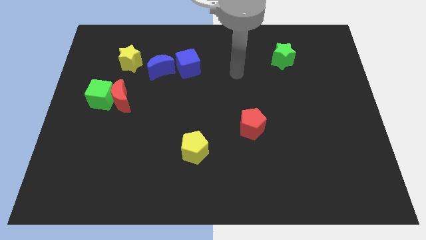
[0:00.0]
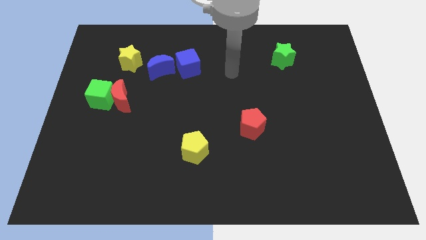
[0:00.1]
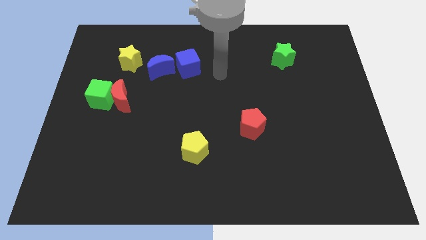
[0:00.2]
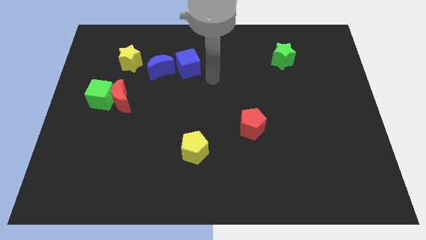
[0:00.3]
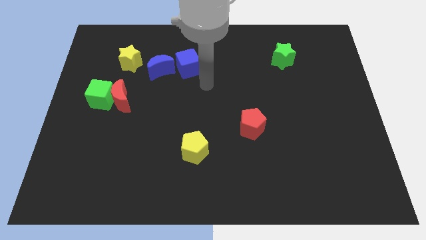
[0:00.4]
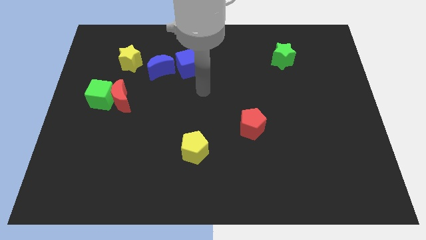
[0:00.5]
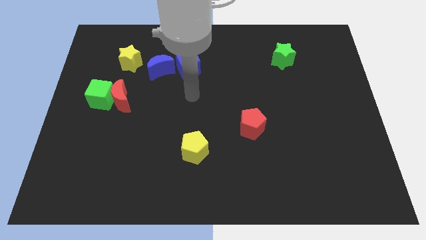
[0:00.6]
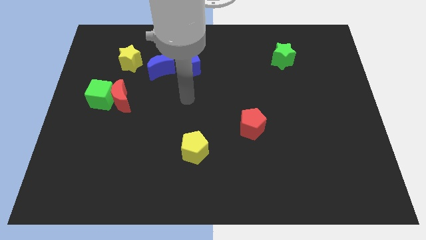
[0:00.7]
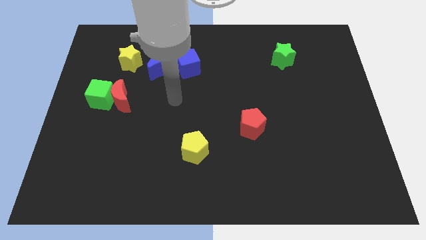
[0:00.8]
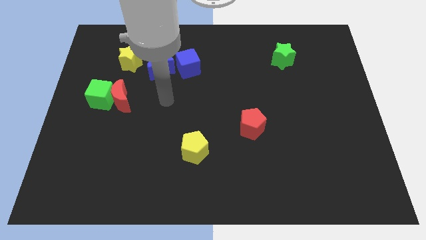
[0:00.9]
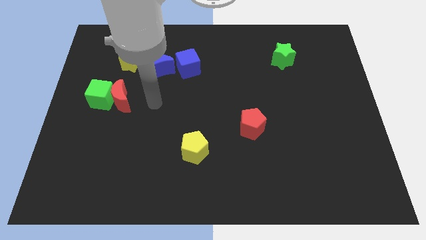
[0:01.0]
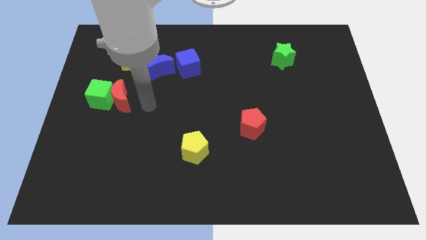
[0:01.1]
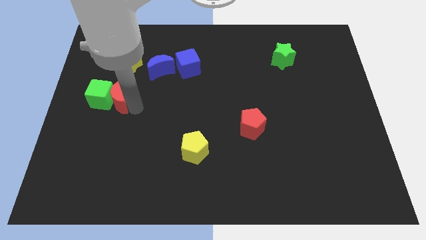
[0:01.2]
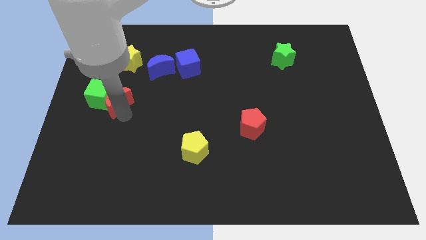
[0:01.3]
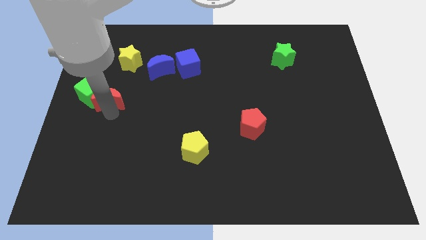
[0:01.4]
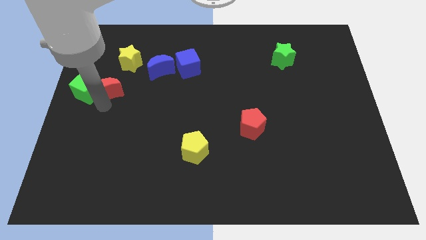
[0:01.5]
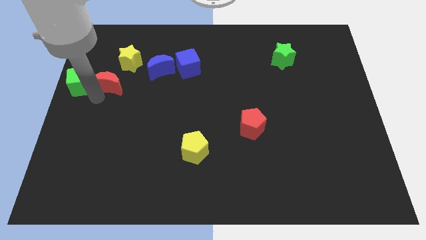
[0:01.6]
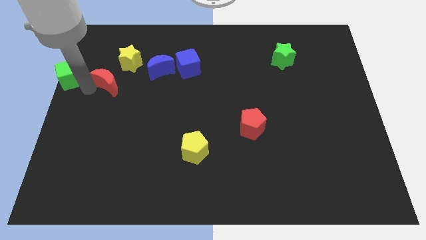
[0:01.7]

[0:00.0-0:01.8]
separate the red moon from the green cube

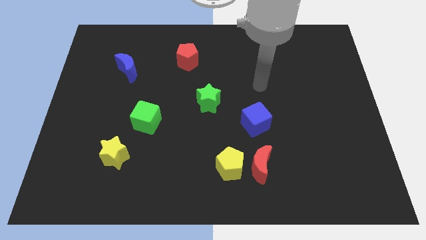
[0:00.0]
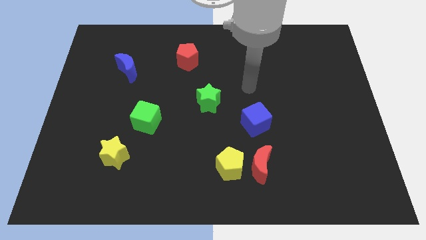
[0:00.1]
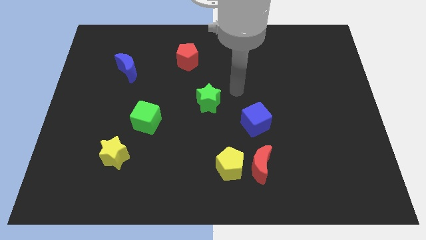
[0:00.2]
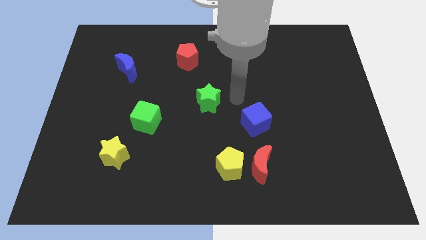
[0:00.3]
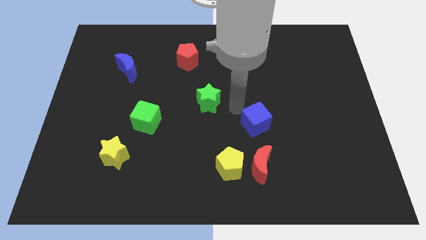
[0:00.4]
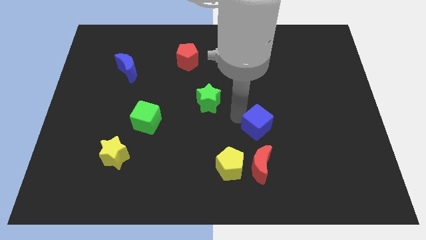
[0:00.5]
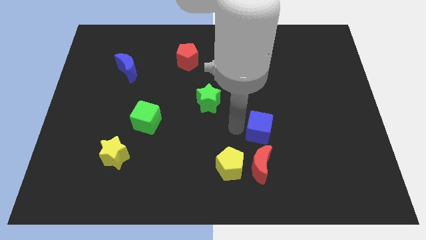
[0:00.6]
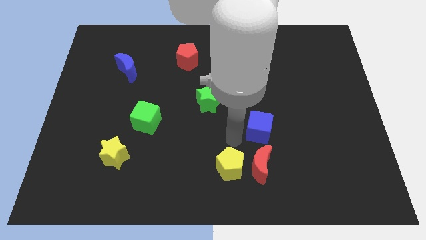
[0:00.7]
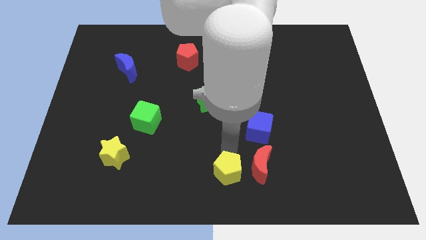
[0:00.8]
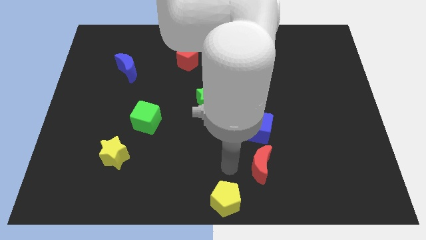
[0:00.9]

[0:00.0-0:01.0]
separate the red moon from the yellow pentagon

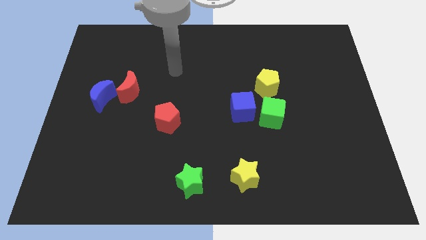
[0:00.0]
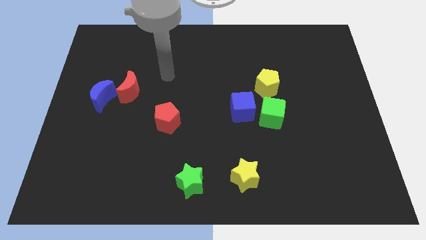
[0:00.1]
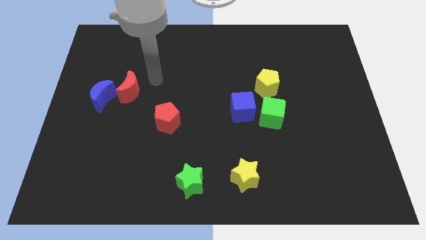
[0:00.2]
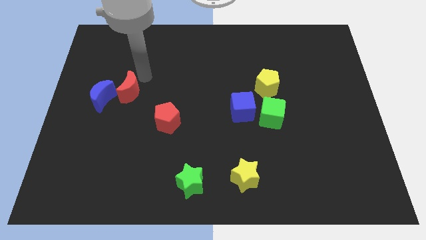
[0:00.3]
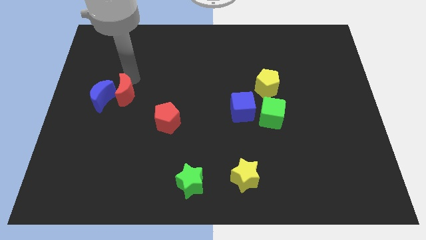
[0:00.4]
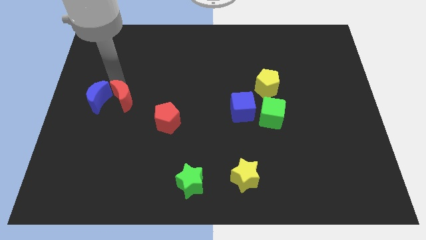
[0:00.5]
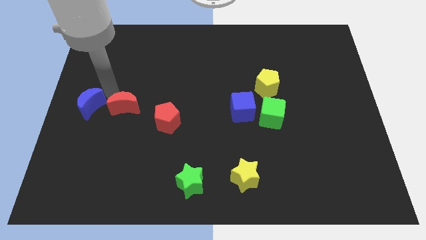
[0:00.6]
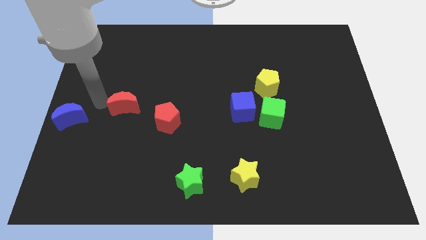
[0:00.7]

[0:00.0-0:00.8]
pull the red moon apart from the blue moon

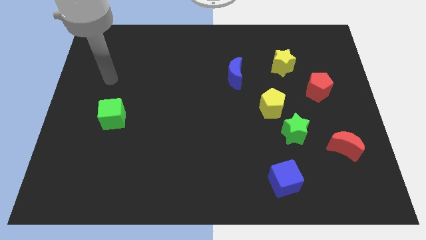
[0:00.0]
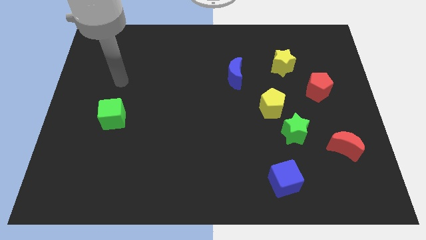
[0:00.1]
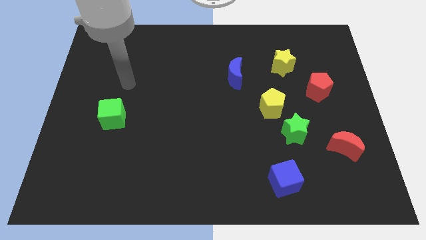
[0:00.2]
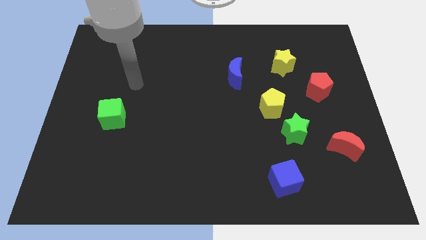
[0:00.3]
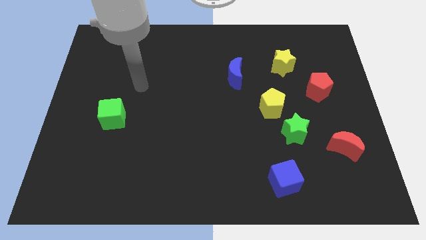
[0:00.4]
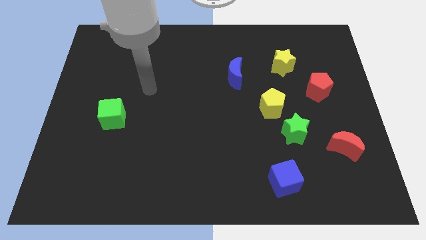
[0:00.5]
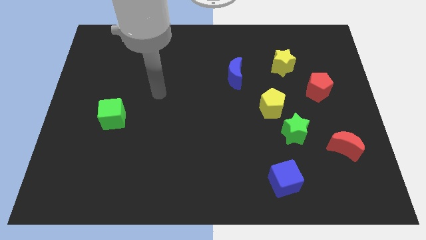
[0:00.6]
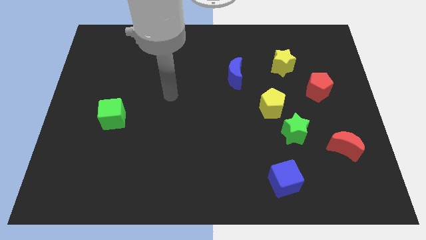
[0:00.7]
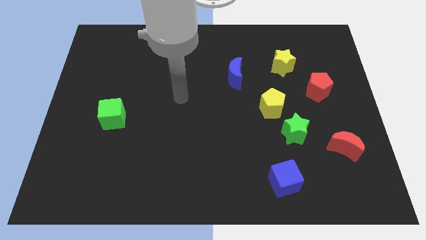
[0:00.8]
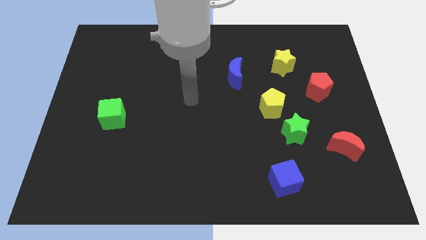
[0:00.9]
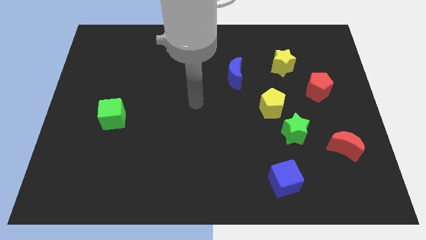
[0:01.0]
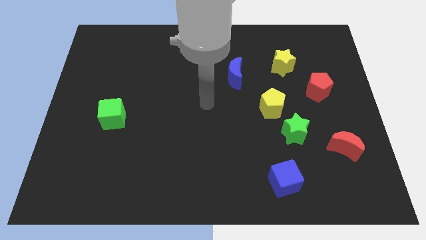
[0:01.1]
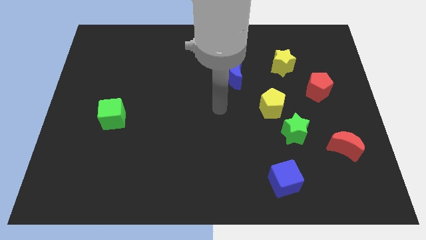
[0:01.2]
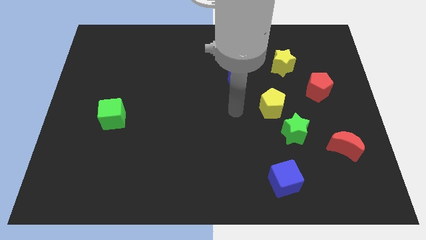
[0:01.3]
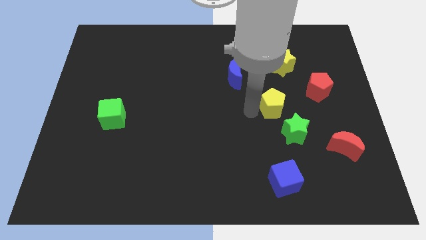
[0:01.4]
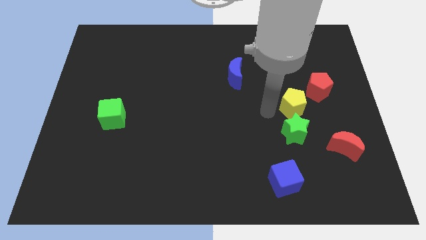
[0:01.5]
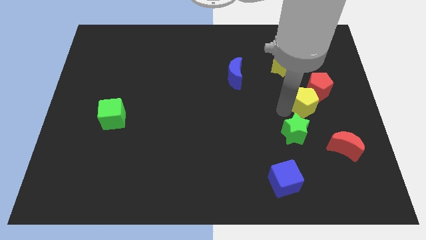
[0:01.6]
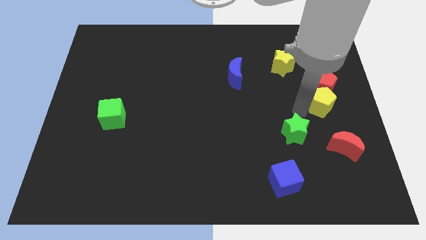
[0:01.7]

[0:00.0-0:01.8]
move the green star away from the yellow pentagon

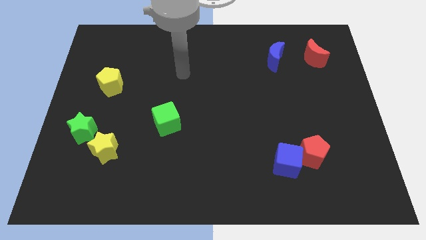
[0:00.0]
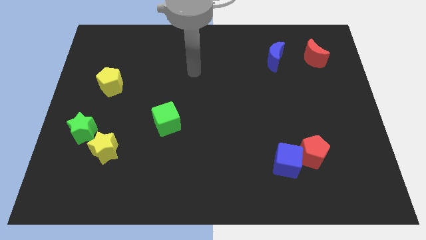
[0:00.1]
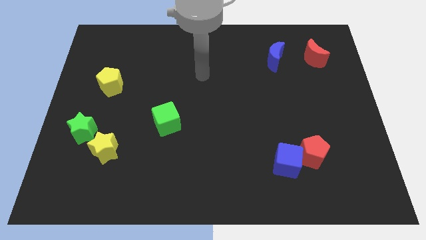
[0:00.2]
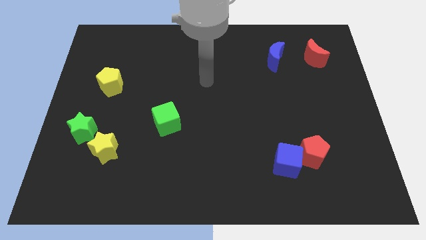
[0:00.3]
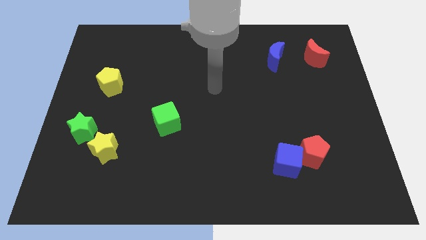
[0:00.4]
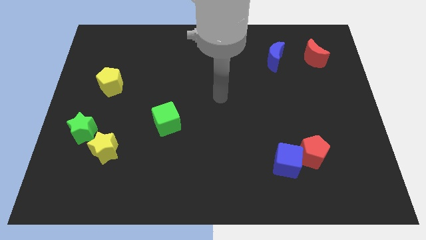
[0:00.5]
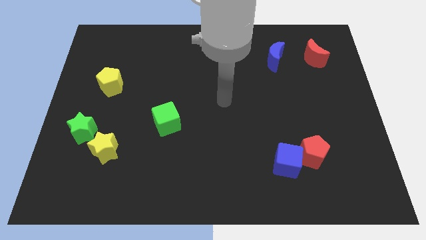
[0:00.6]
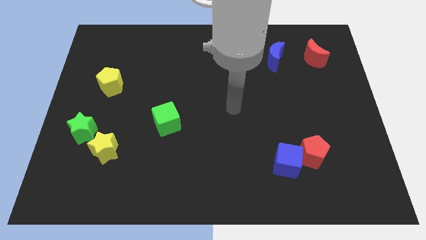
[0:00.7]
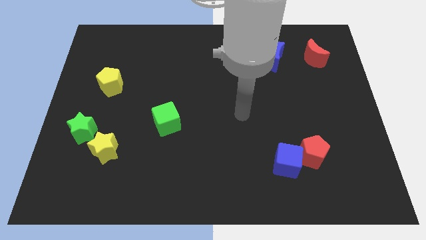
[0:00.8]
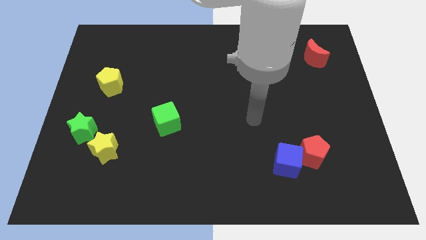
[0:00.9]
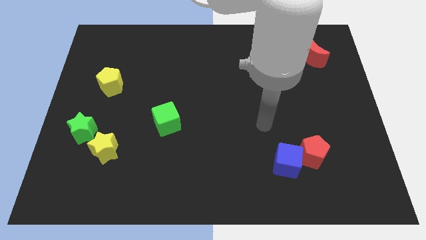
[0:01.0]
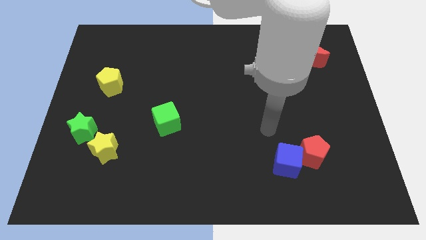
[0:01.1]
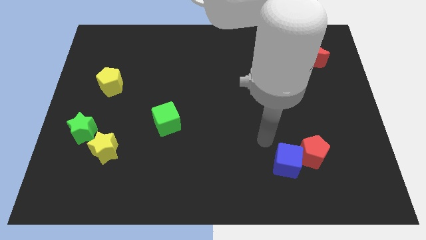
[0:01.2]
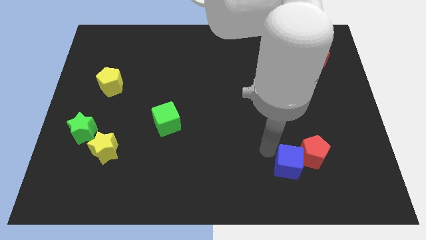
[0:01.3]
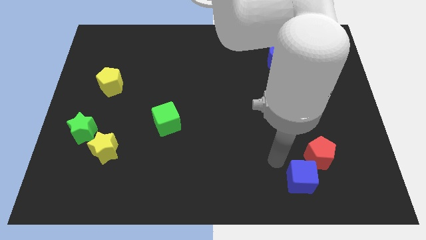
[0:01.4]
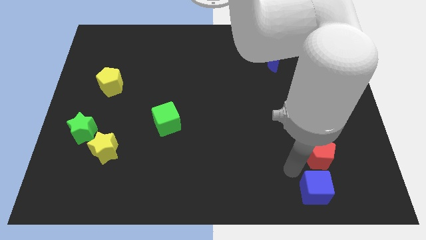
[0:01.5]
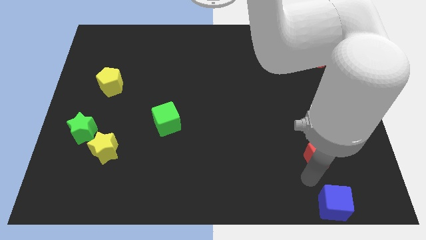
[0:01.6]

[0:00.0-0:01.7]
separate the red pentagon from the blue cube

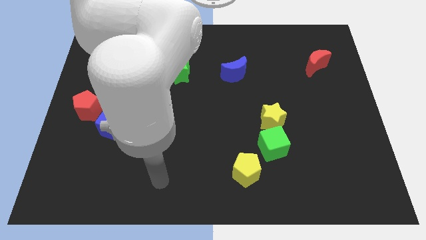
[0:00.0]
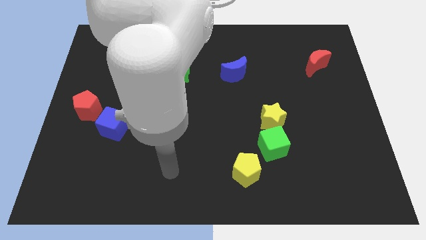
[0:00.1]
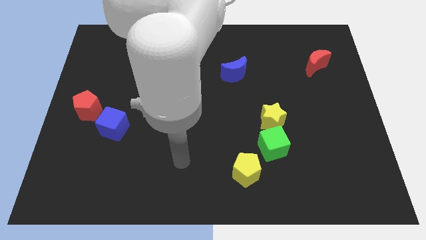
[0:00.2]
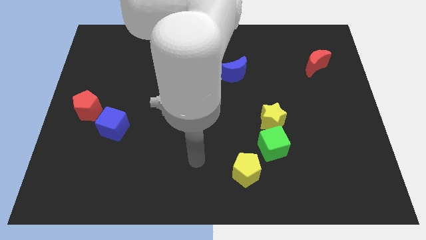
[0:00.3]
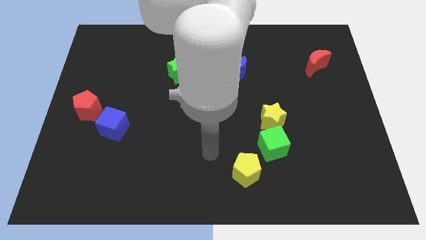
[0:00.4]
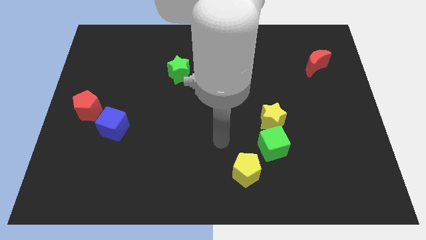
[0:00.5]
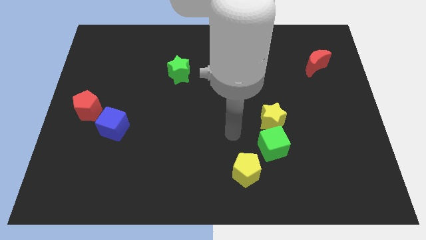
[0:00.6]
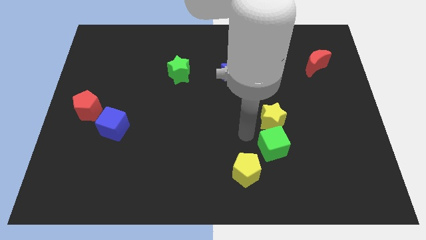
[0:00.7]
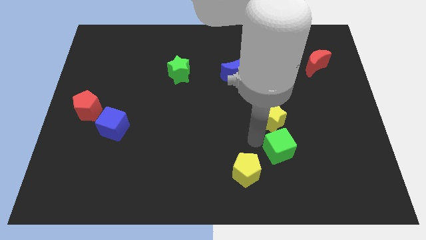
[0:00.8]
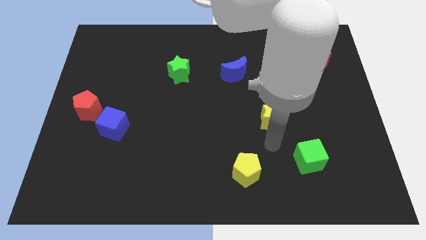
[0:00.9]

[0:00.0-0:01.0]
move the yellow star away from the green cube

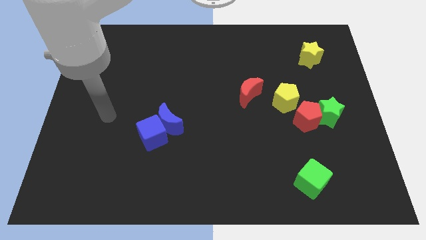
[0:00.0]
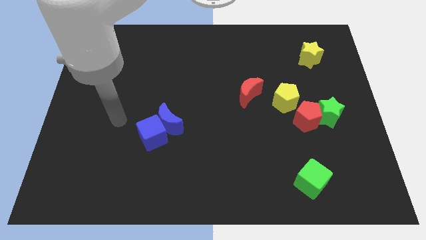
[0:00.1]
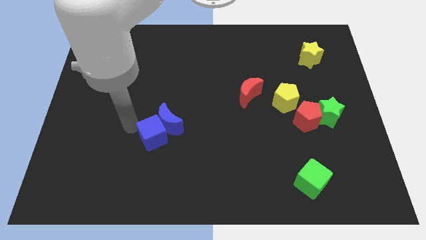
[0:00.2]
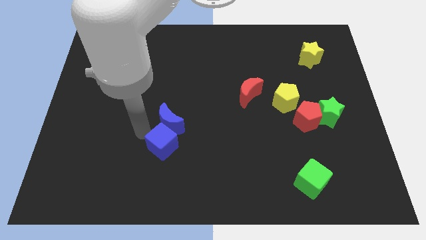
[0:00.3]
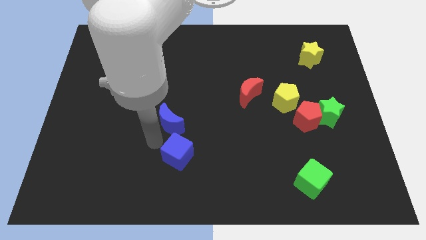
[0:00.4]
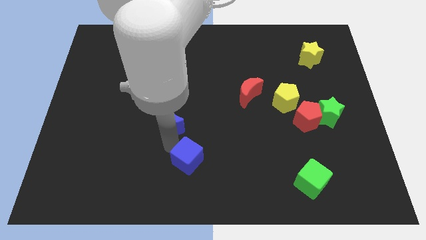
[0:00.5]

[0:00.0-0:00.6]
separate the blue moon from the blue cube

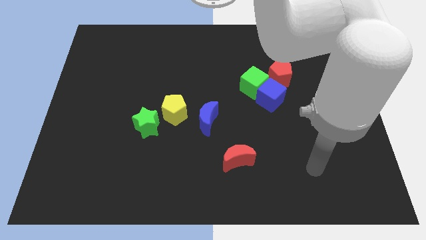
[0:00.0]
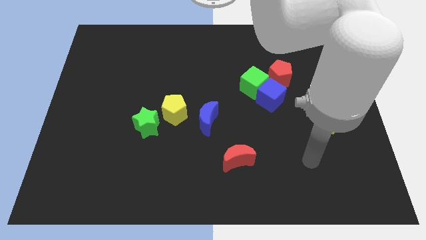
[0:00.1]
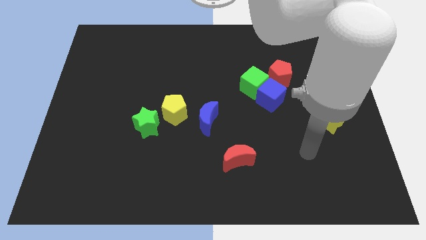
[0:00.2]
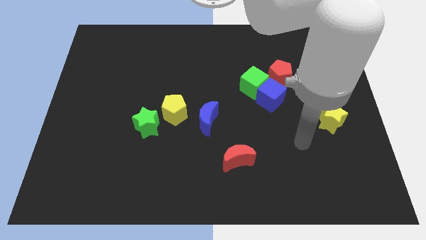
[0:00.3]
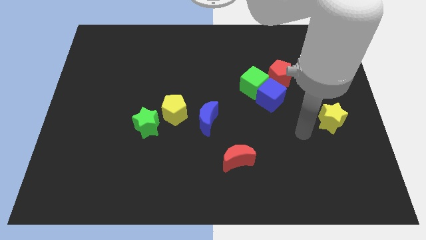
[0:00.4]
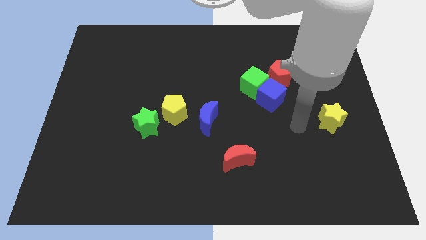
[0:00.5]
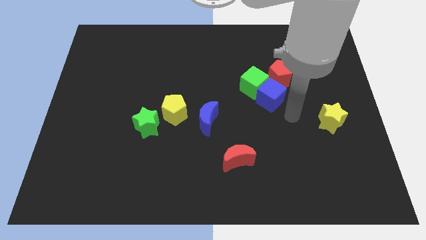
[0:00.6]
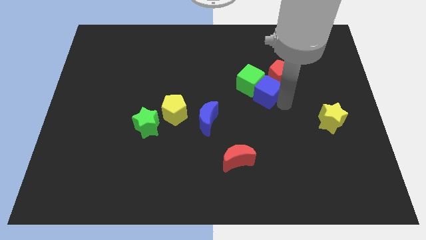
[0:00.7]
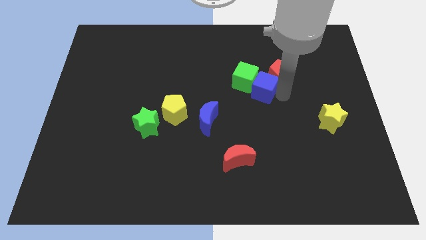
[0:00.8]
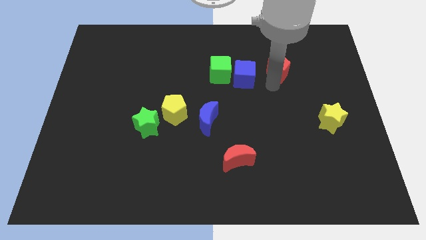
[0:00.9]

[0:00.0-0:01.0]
separate the green cube from the blue cube and red pentagon
